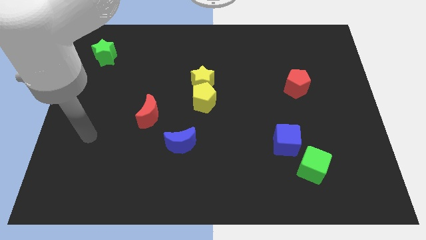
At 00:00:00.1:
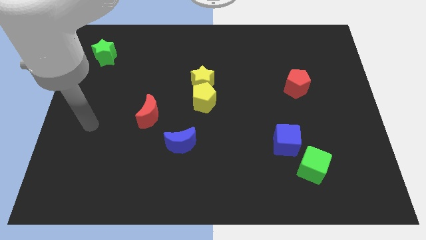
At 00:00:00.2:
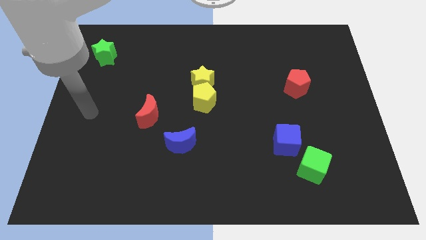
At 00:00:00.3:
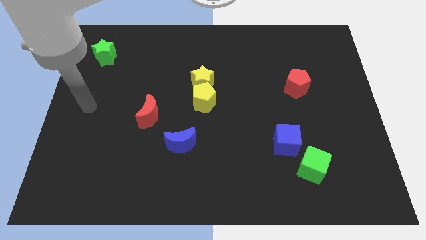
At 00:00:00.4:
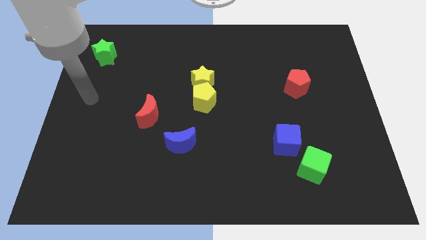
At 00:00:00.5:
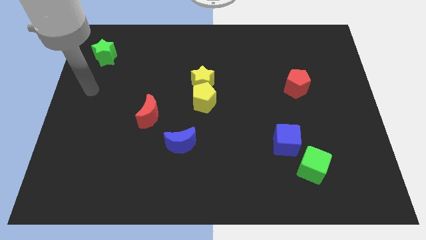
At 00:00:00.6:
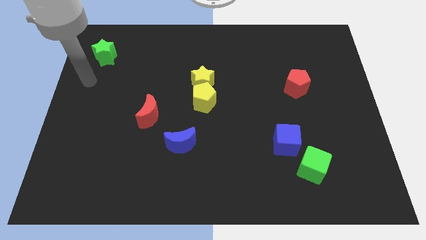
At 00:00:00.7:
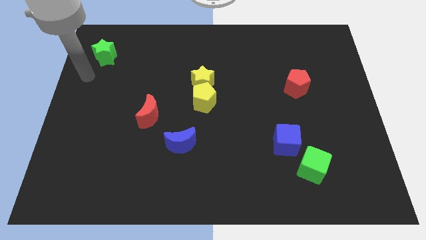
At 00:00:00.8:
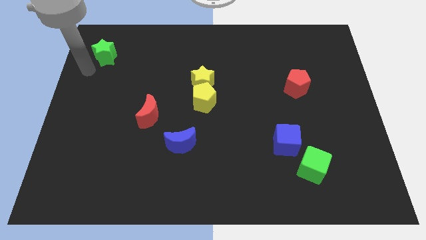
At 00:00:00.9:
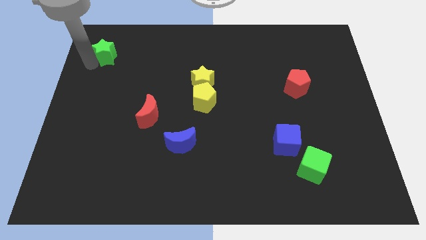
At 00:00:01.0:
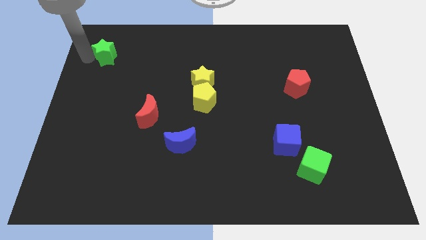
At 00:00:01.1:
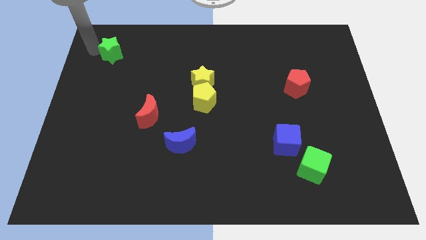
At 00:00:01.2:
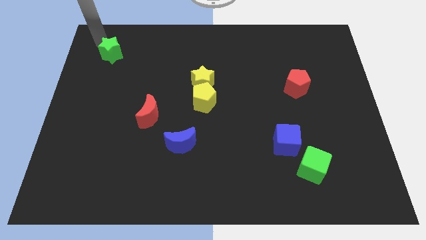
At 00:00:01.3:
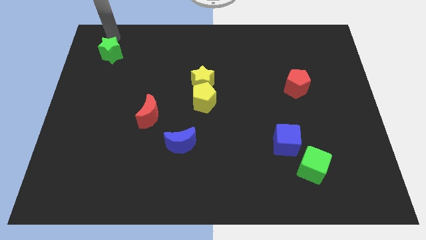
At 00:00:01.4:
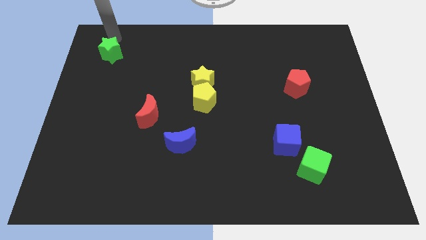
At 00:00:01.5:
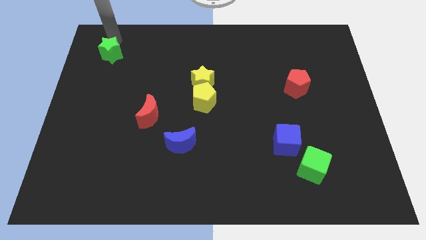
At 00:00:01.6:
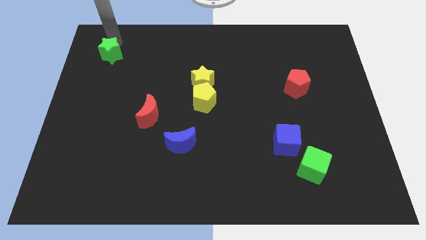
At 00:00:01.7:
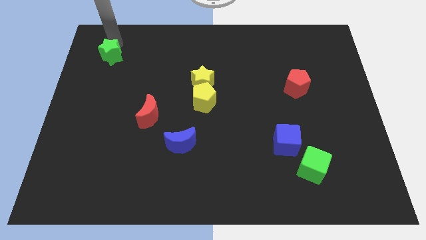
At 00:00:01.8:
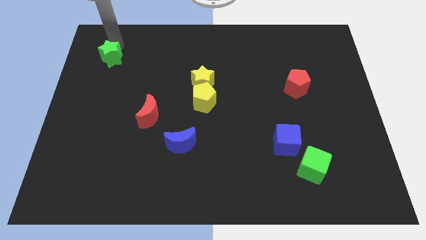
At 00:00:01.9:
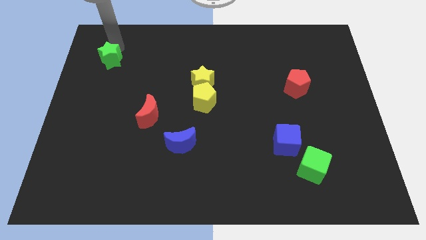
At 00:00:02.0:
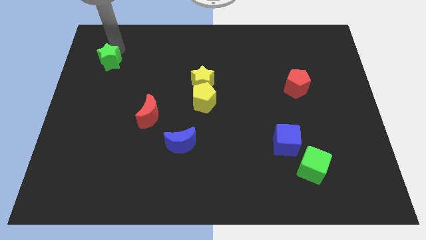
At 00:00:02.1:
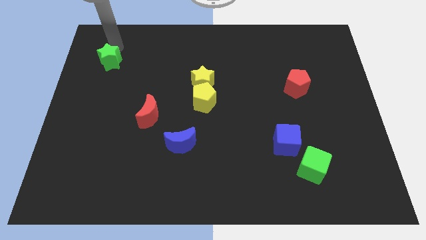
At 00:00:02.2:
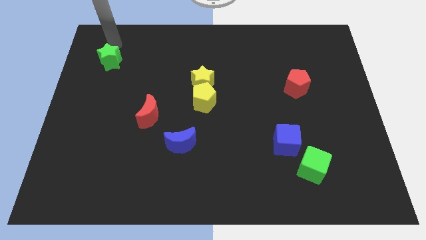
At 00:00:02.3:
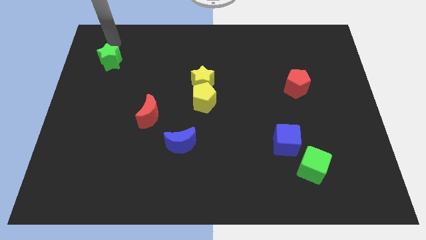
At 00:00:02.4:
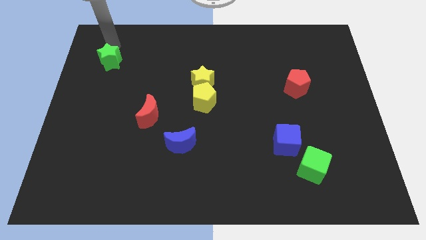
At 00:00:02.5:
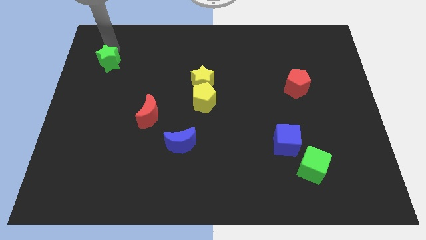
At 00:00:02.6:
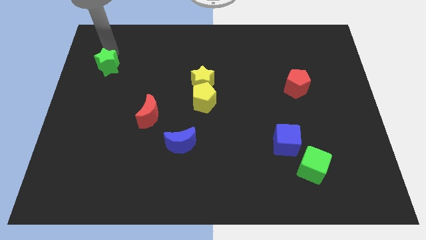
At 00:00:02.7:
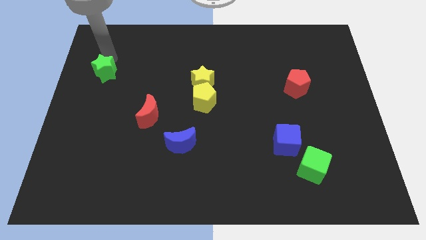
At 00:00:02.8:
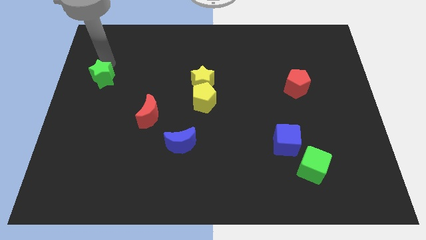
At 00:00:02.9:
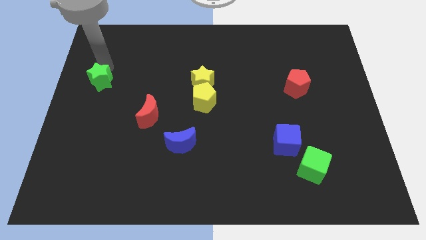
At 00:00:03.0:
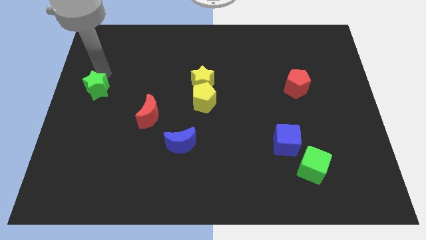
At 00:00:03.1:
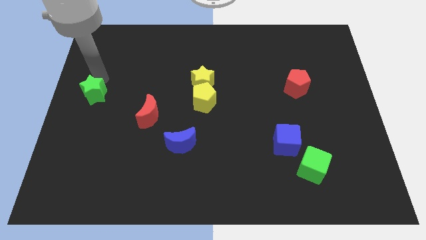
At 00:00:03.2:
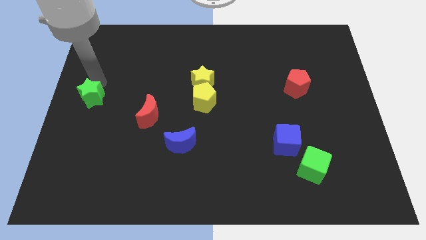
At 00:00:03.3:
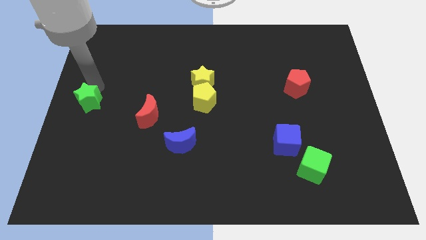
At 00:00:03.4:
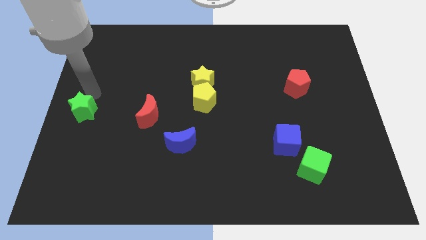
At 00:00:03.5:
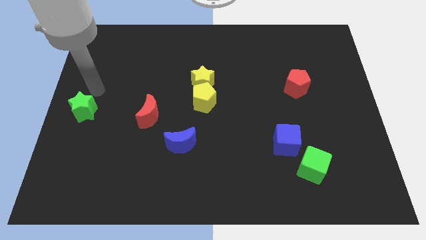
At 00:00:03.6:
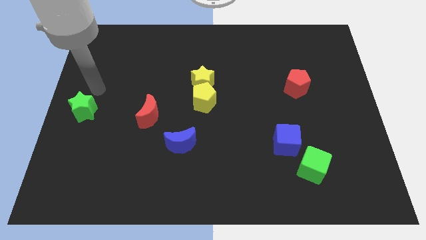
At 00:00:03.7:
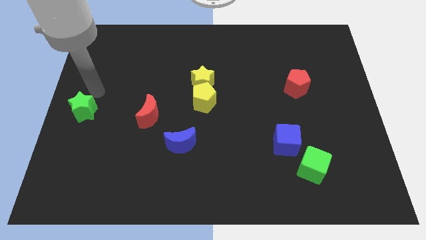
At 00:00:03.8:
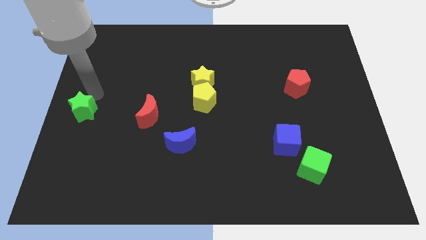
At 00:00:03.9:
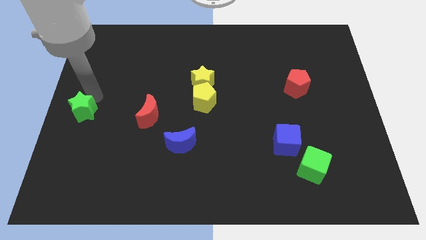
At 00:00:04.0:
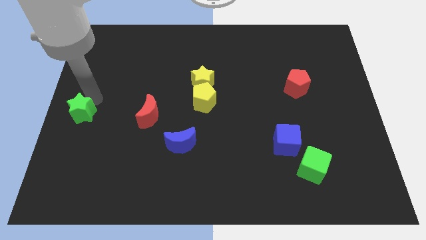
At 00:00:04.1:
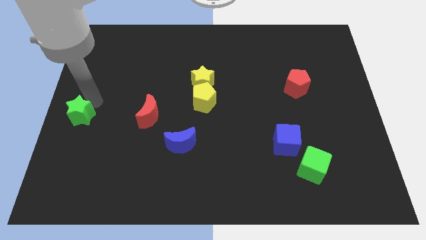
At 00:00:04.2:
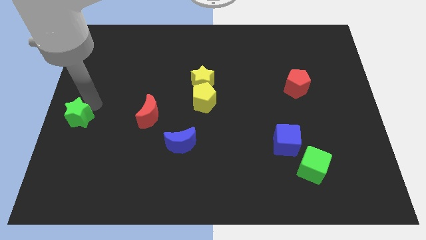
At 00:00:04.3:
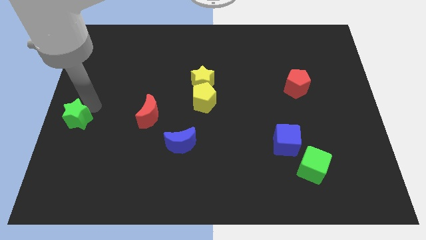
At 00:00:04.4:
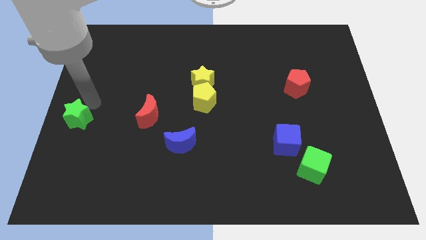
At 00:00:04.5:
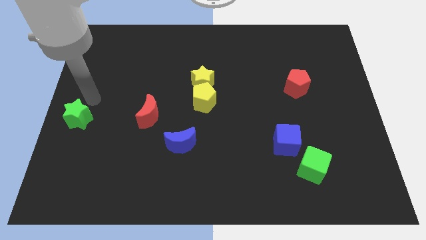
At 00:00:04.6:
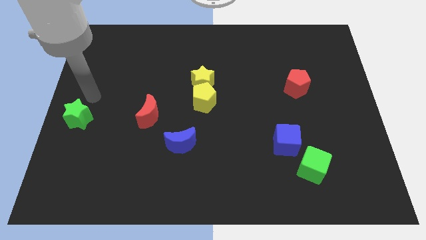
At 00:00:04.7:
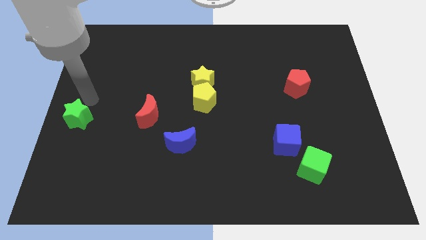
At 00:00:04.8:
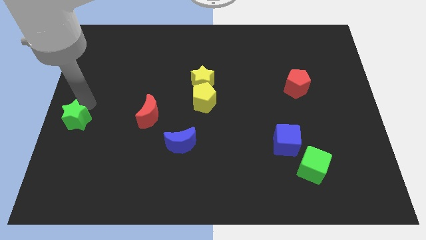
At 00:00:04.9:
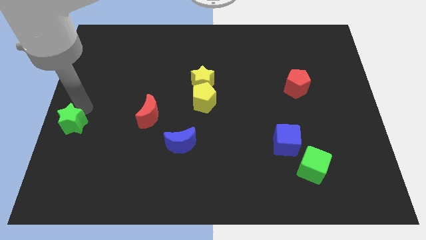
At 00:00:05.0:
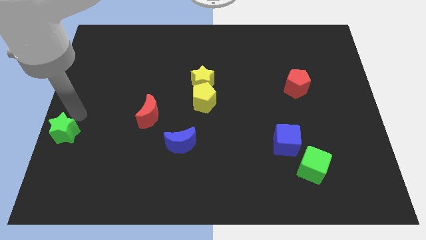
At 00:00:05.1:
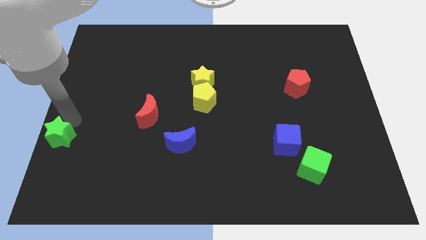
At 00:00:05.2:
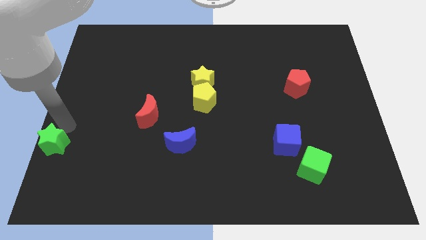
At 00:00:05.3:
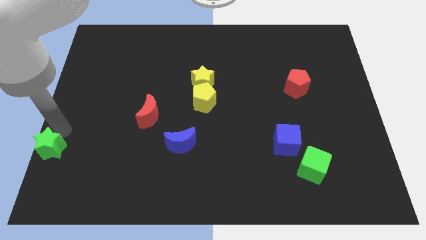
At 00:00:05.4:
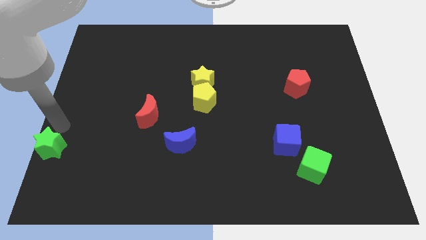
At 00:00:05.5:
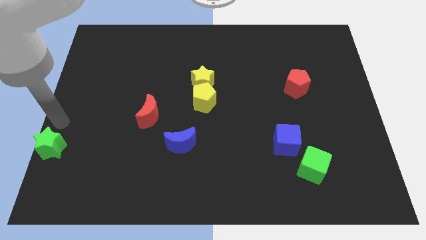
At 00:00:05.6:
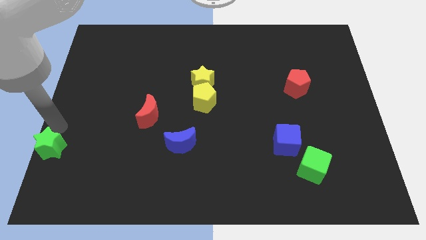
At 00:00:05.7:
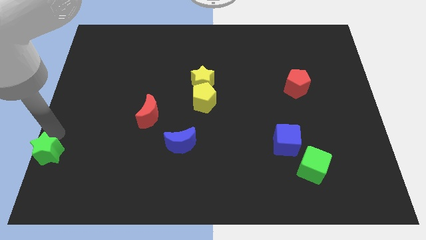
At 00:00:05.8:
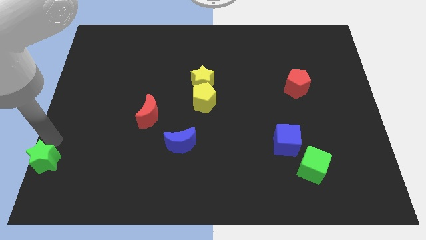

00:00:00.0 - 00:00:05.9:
push the green star to the lower left corner

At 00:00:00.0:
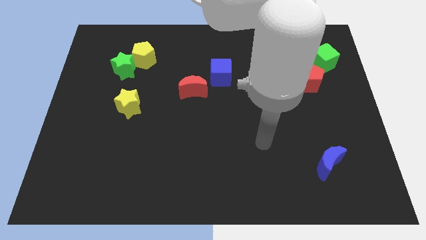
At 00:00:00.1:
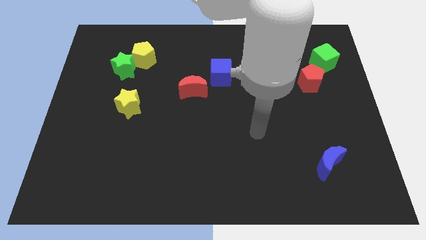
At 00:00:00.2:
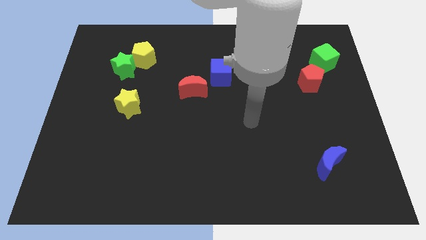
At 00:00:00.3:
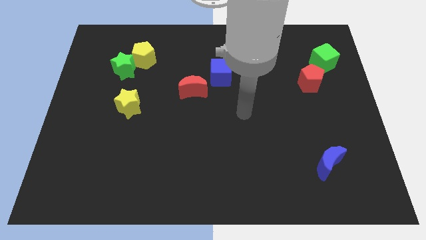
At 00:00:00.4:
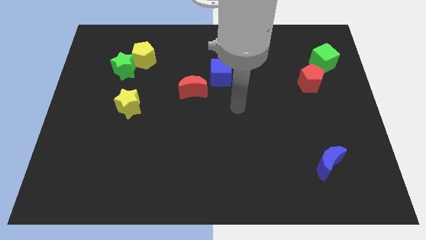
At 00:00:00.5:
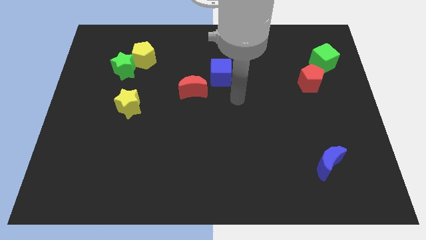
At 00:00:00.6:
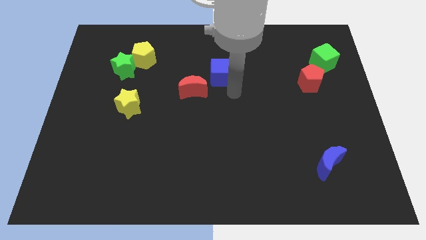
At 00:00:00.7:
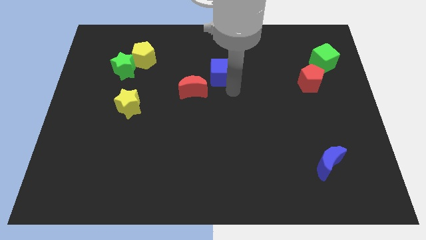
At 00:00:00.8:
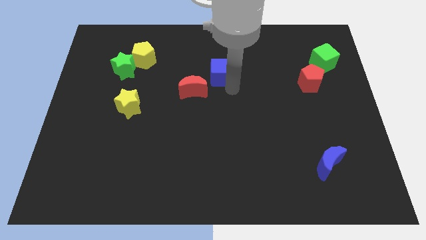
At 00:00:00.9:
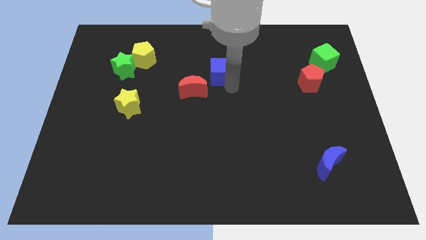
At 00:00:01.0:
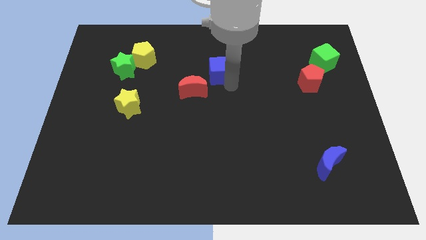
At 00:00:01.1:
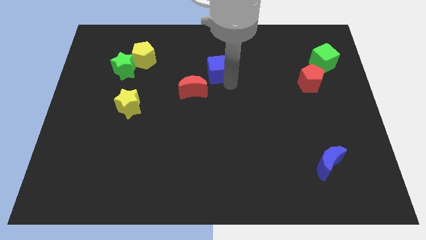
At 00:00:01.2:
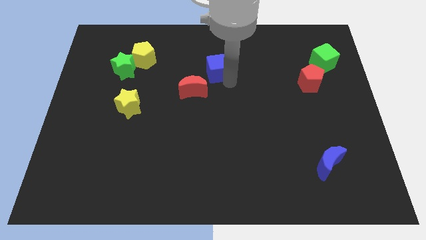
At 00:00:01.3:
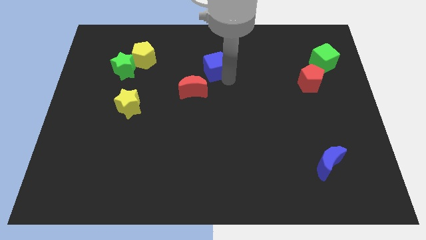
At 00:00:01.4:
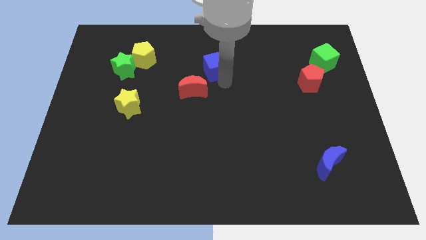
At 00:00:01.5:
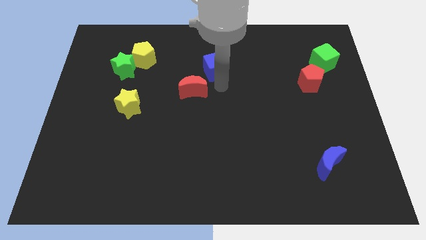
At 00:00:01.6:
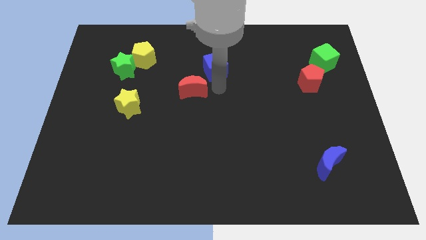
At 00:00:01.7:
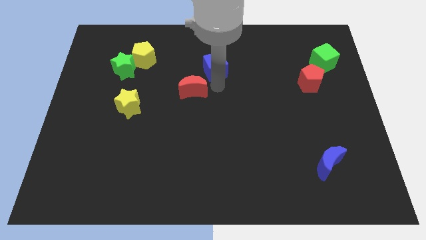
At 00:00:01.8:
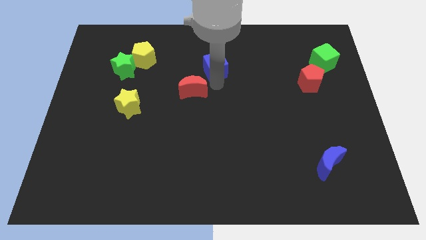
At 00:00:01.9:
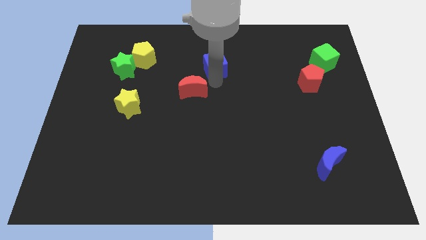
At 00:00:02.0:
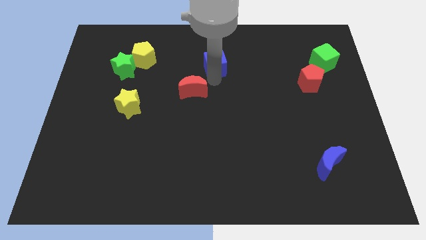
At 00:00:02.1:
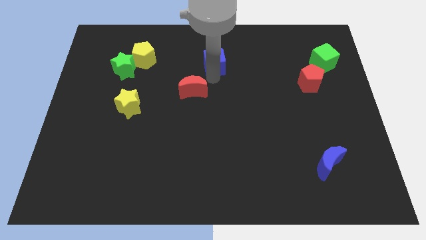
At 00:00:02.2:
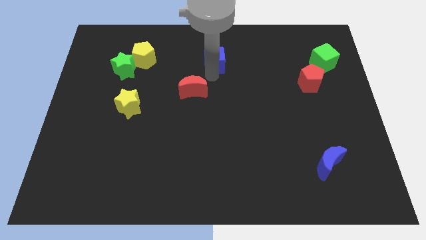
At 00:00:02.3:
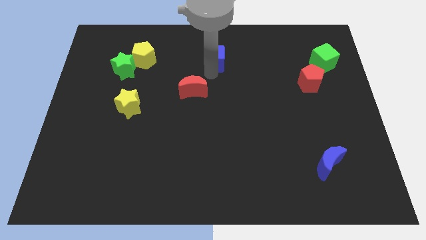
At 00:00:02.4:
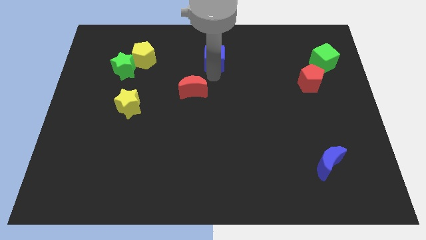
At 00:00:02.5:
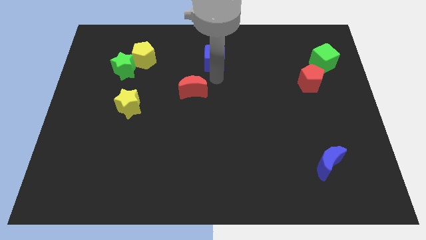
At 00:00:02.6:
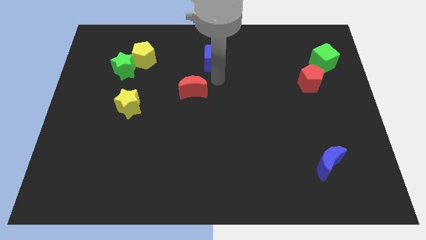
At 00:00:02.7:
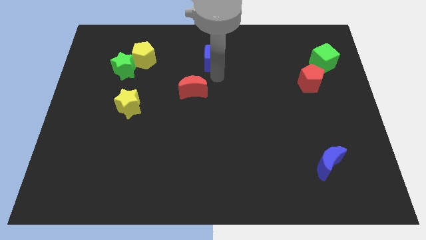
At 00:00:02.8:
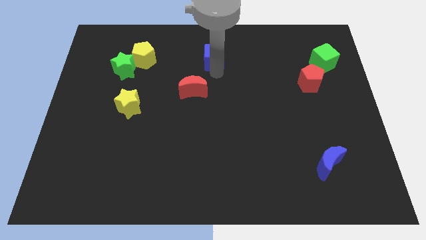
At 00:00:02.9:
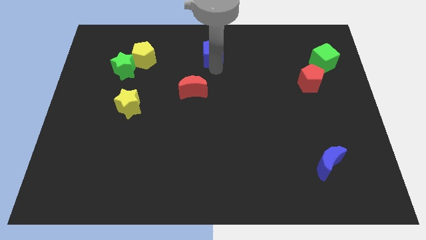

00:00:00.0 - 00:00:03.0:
move the blue cube to the top side
